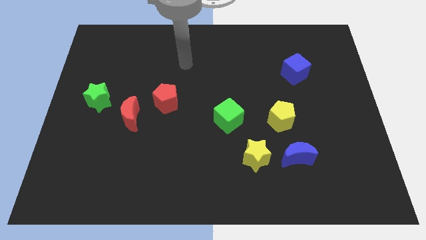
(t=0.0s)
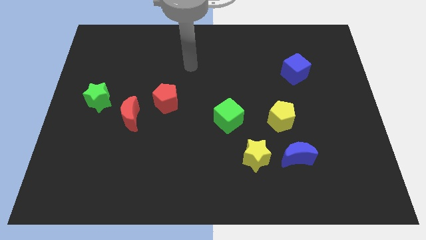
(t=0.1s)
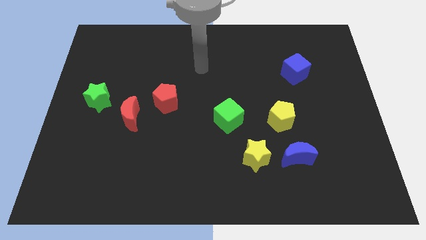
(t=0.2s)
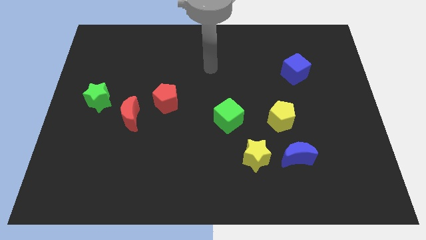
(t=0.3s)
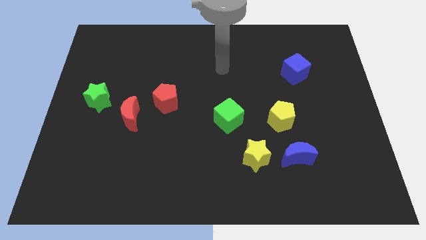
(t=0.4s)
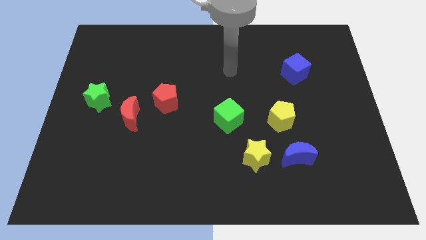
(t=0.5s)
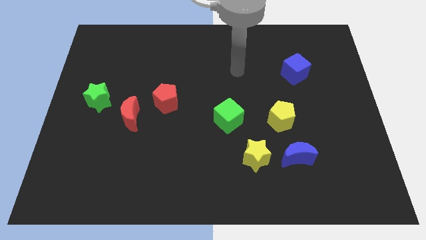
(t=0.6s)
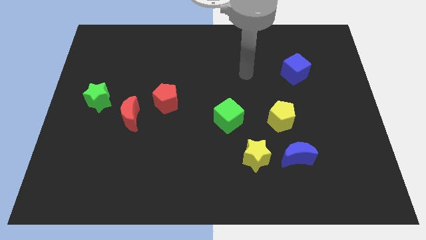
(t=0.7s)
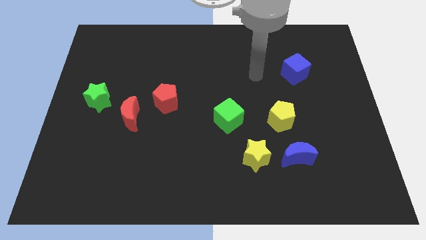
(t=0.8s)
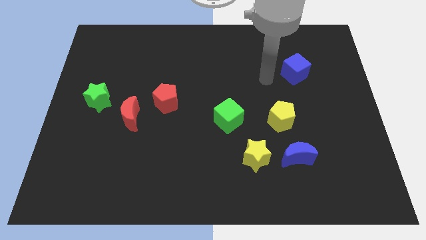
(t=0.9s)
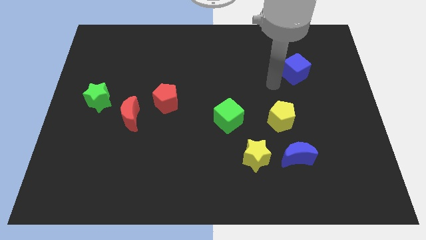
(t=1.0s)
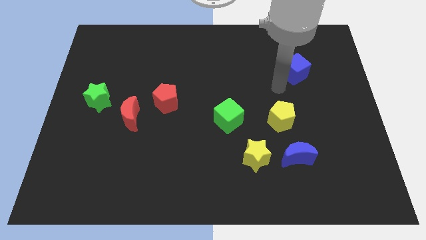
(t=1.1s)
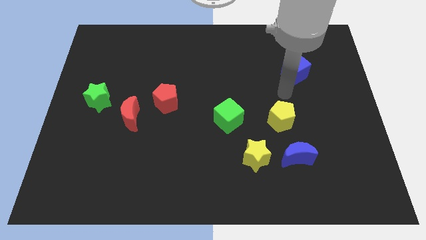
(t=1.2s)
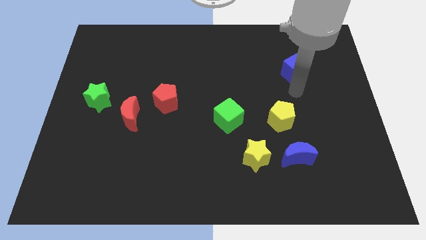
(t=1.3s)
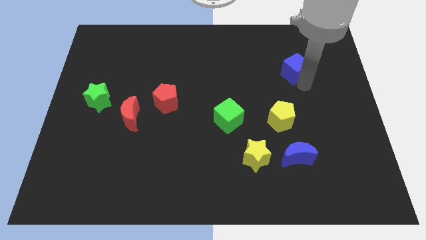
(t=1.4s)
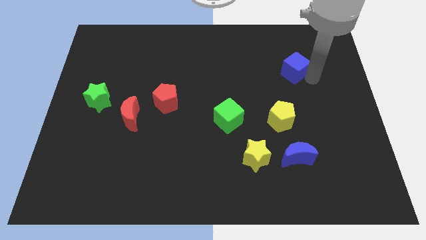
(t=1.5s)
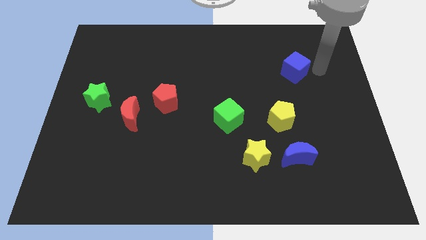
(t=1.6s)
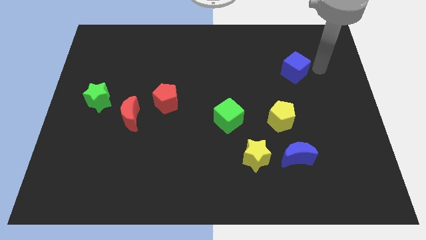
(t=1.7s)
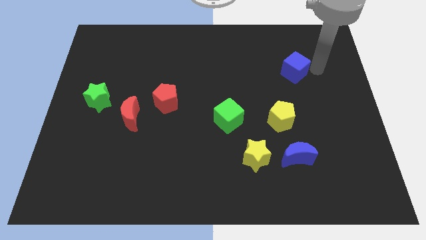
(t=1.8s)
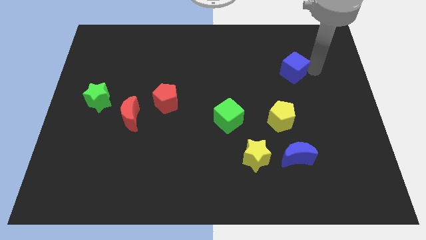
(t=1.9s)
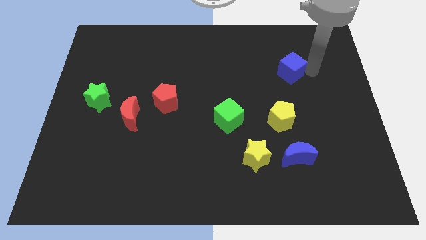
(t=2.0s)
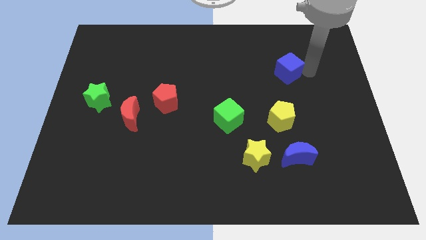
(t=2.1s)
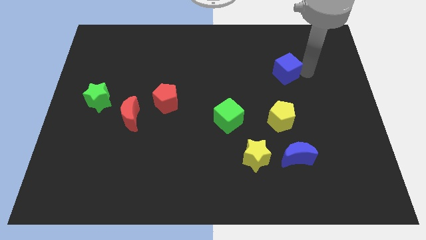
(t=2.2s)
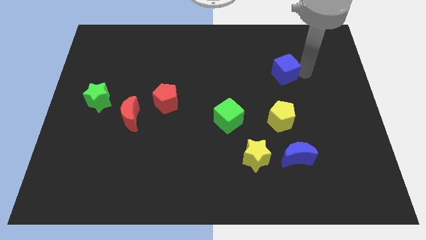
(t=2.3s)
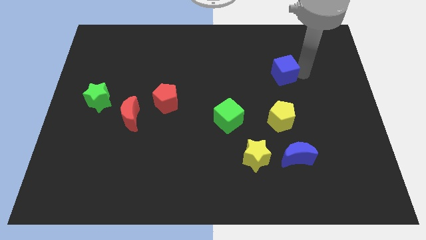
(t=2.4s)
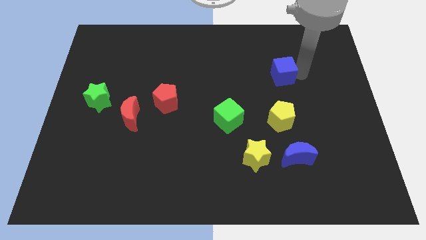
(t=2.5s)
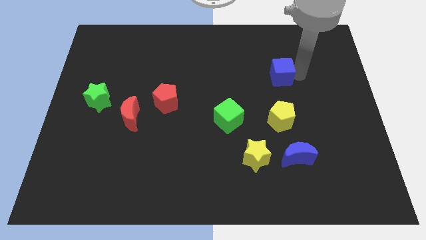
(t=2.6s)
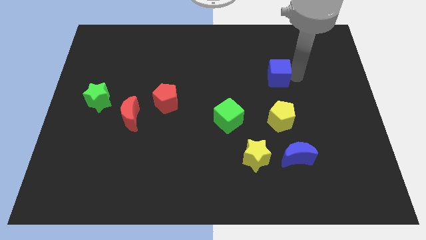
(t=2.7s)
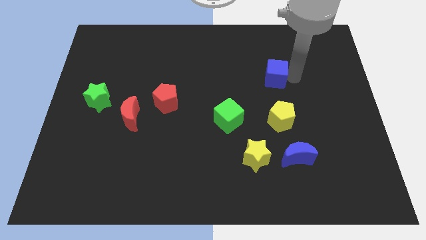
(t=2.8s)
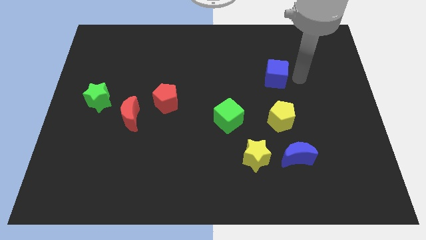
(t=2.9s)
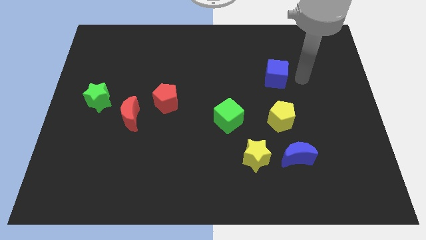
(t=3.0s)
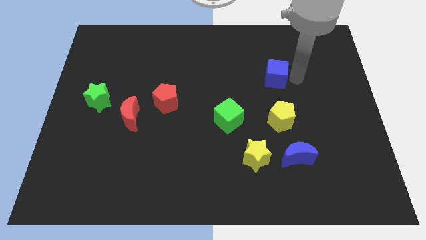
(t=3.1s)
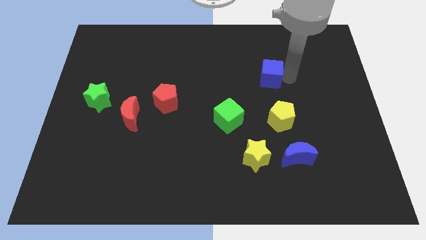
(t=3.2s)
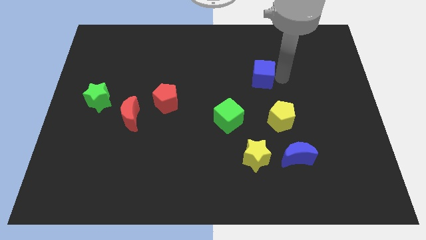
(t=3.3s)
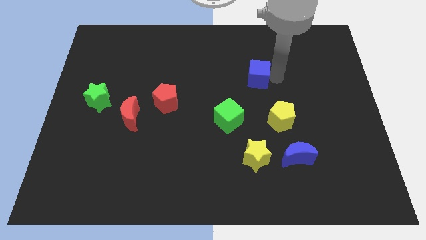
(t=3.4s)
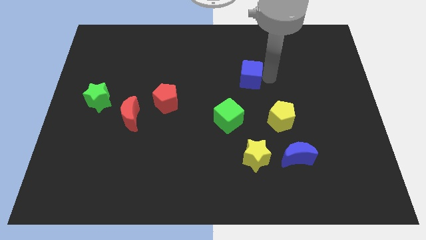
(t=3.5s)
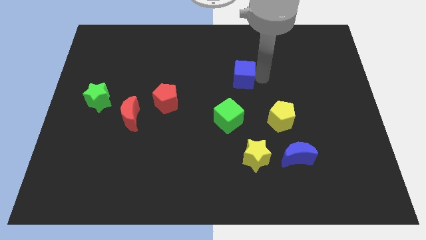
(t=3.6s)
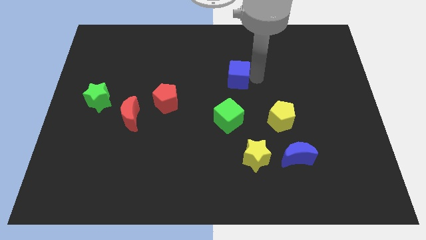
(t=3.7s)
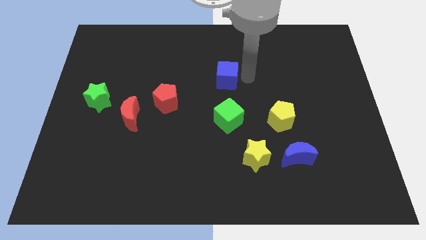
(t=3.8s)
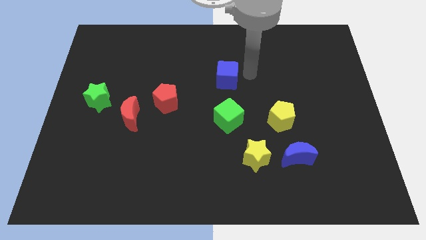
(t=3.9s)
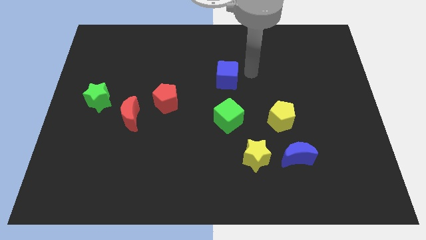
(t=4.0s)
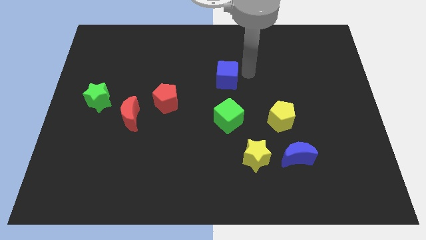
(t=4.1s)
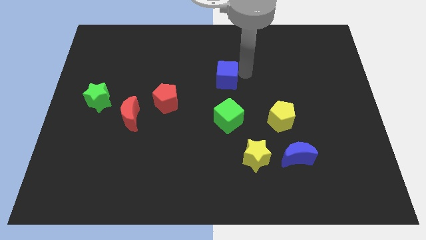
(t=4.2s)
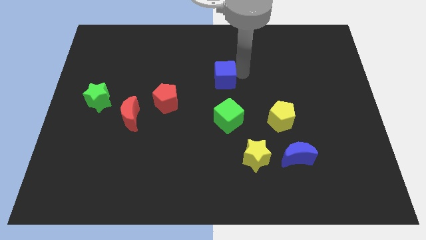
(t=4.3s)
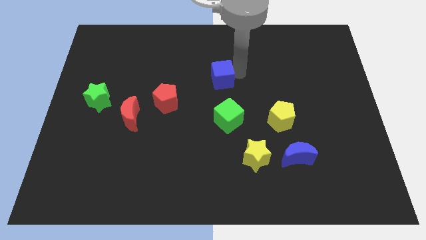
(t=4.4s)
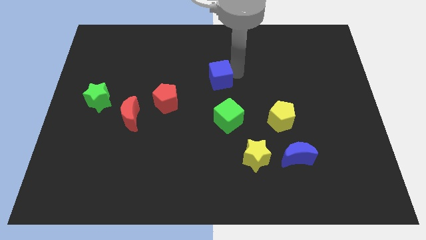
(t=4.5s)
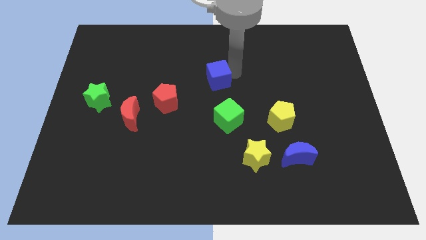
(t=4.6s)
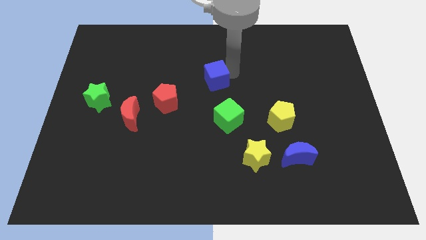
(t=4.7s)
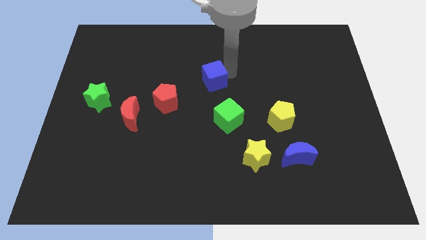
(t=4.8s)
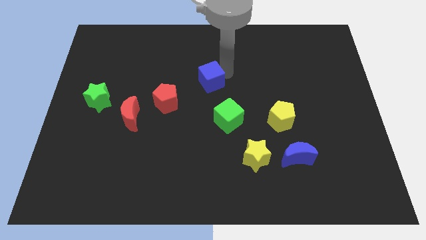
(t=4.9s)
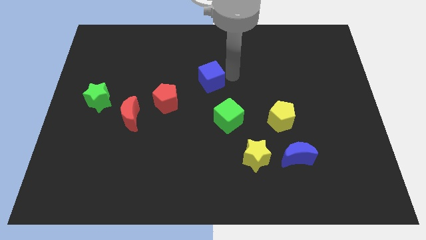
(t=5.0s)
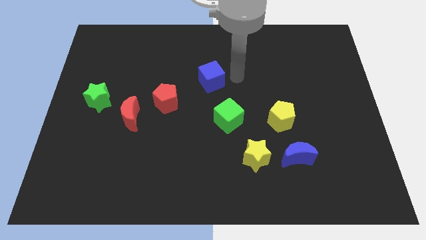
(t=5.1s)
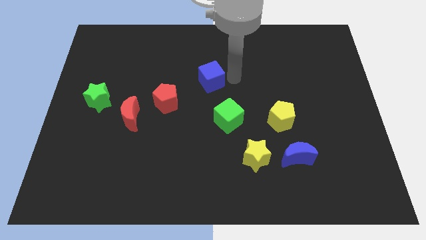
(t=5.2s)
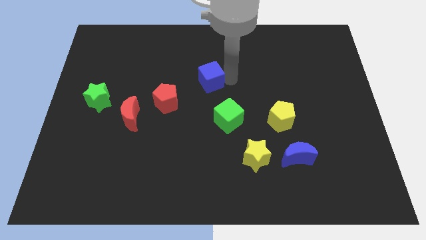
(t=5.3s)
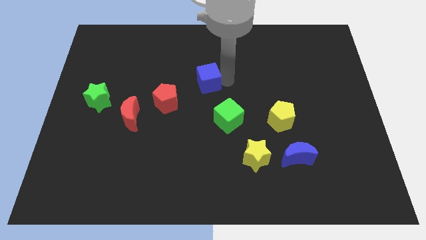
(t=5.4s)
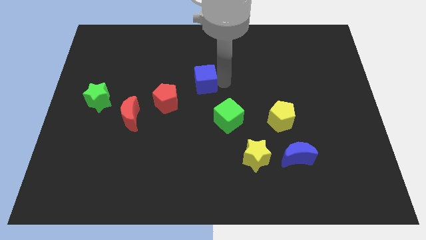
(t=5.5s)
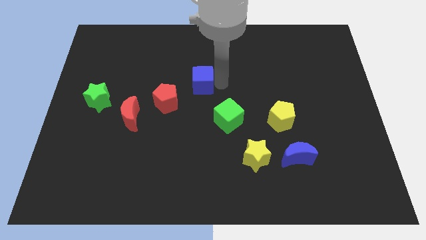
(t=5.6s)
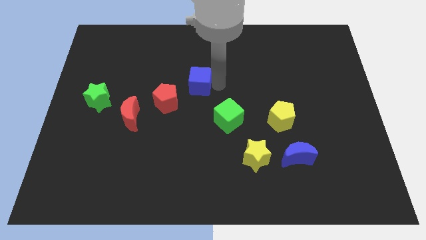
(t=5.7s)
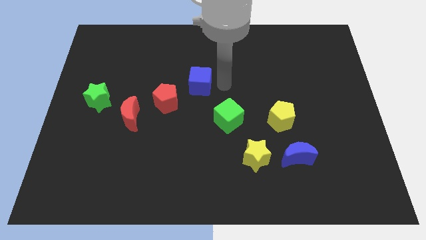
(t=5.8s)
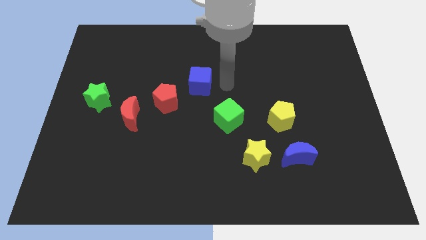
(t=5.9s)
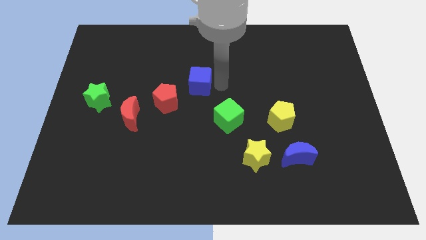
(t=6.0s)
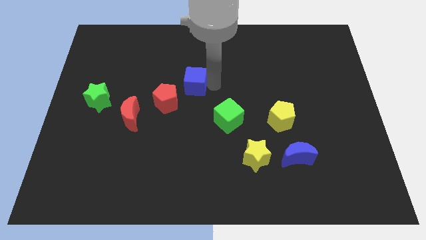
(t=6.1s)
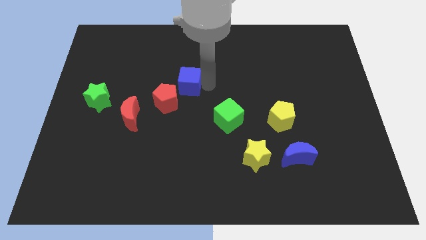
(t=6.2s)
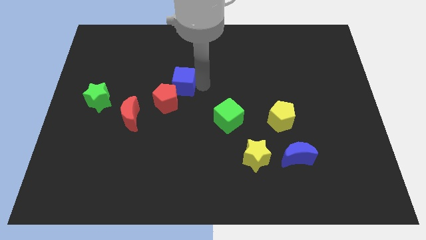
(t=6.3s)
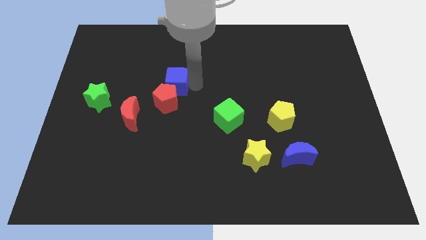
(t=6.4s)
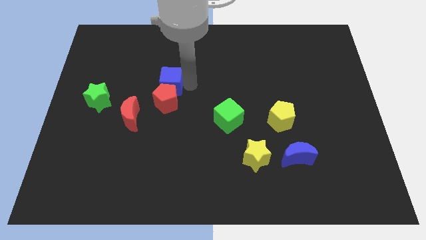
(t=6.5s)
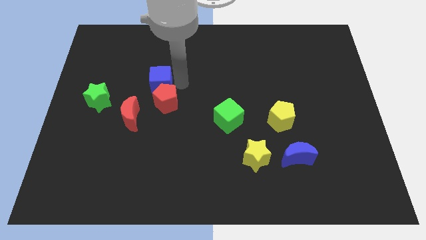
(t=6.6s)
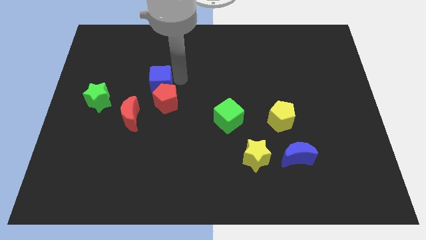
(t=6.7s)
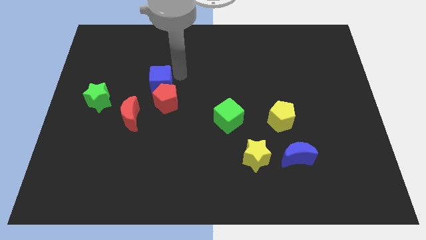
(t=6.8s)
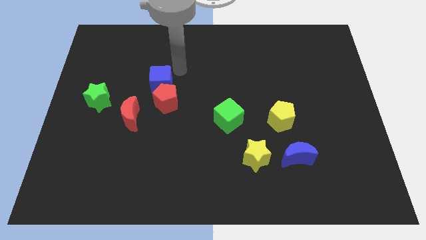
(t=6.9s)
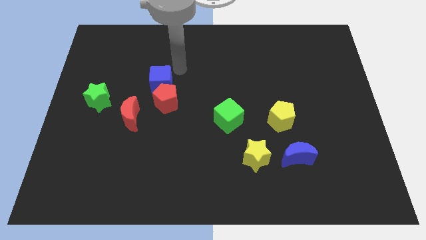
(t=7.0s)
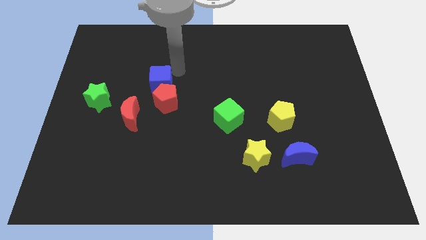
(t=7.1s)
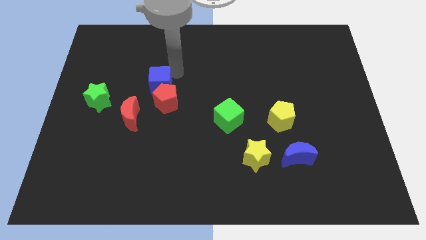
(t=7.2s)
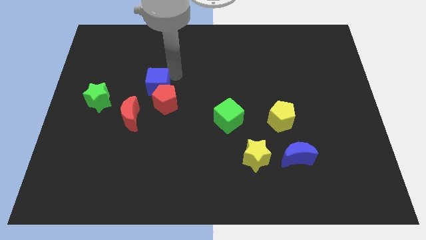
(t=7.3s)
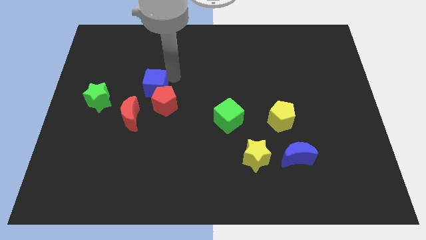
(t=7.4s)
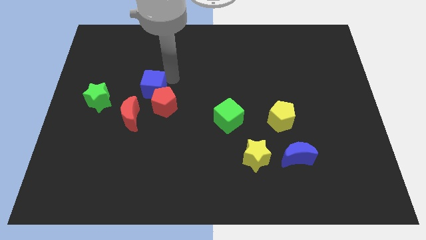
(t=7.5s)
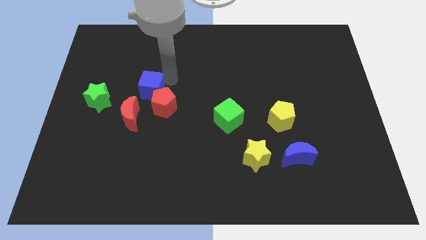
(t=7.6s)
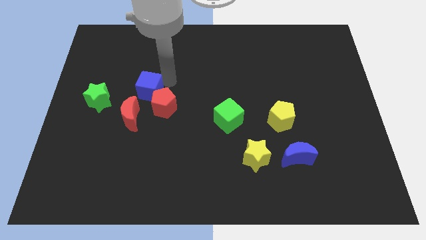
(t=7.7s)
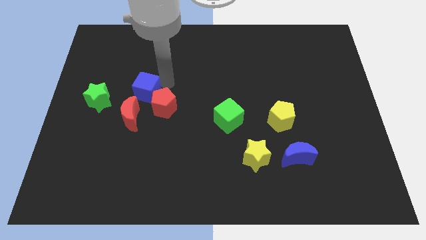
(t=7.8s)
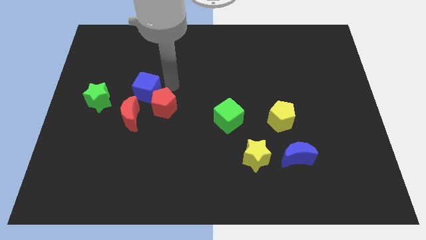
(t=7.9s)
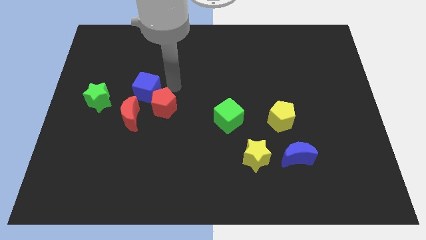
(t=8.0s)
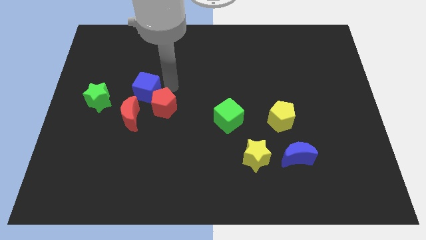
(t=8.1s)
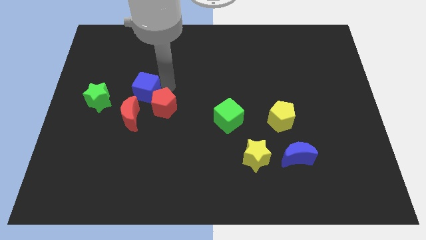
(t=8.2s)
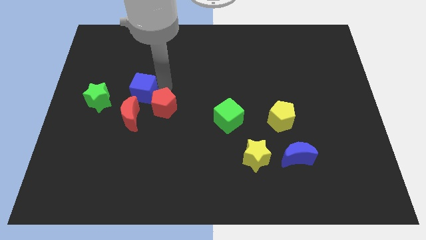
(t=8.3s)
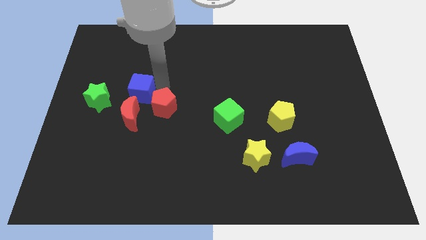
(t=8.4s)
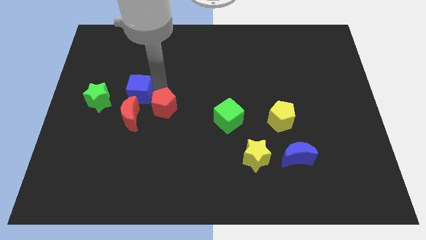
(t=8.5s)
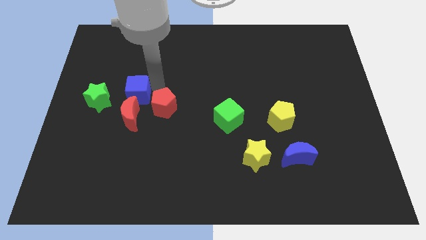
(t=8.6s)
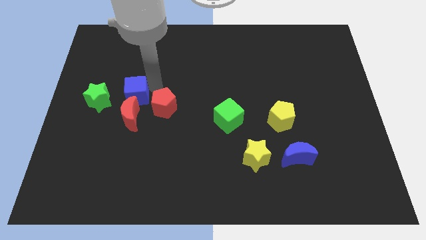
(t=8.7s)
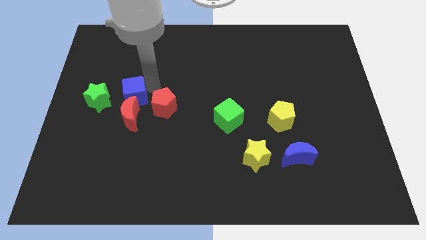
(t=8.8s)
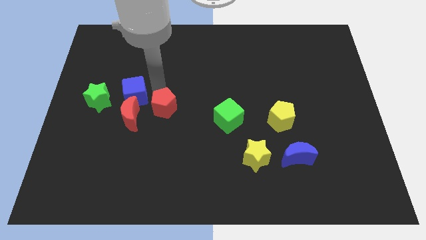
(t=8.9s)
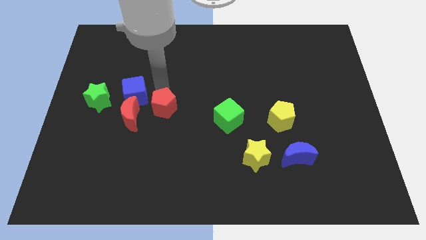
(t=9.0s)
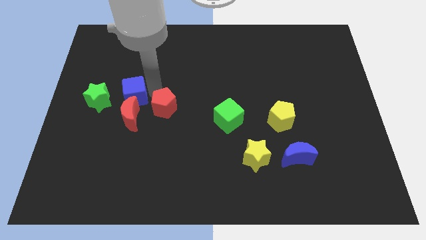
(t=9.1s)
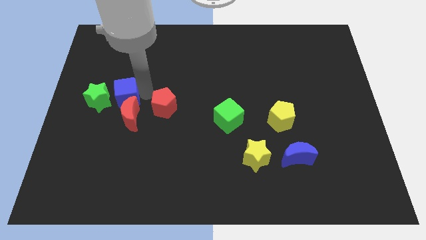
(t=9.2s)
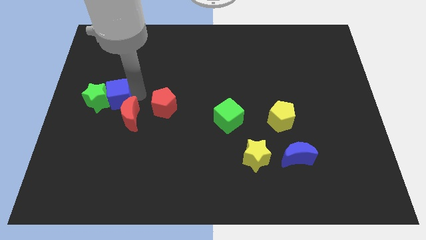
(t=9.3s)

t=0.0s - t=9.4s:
push the blue cube towards the green star
